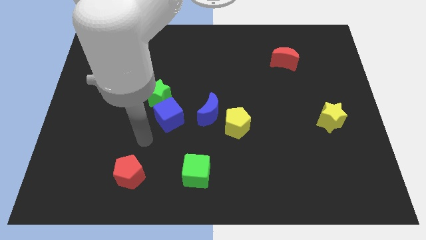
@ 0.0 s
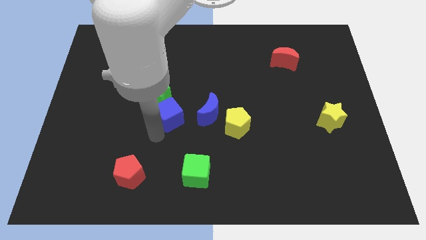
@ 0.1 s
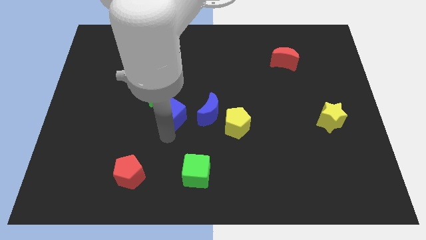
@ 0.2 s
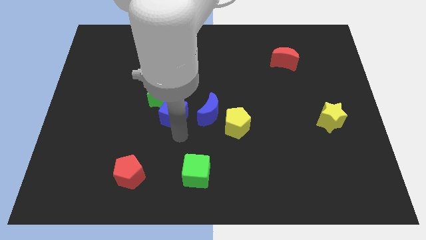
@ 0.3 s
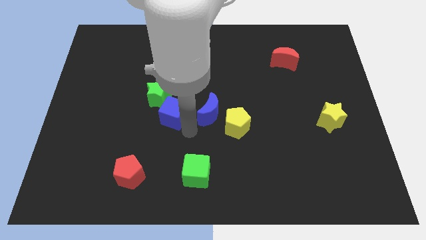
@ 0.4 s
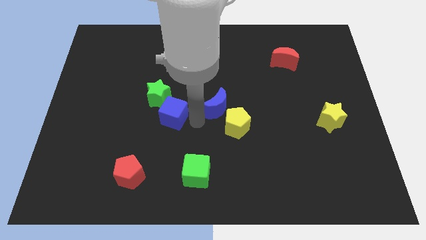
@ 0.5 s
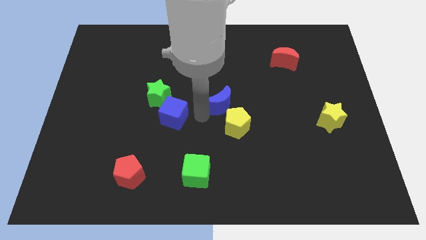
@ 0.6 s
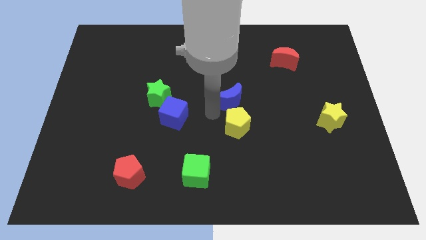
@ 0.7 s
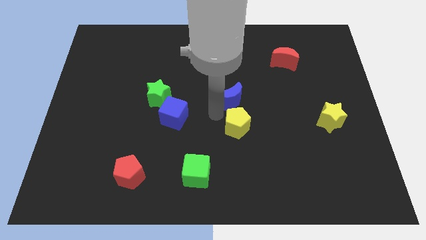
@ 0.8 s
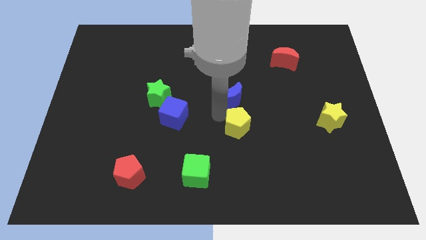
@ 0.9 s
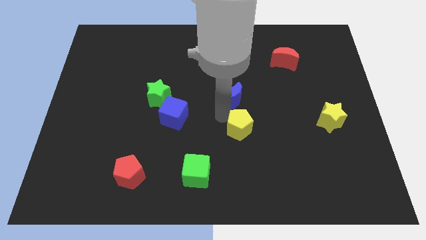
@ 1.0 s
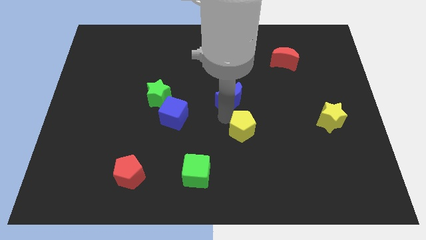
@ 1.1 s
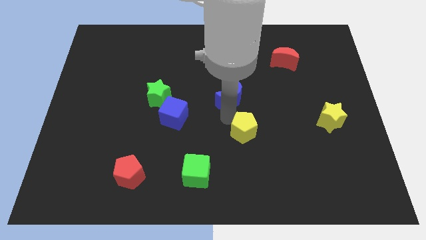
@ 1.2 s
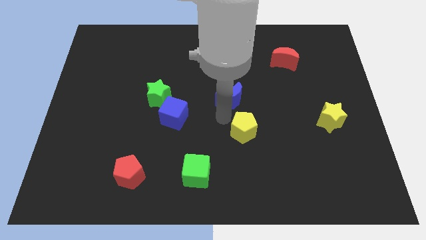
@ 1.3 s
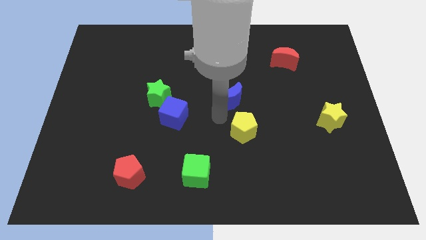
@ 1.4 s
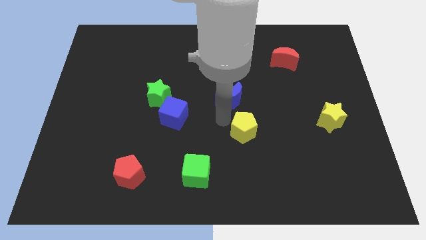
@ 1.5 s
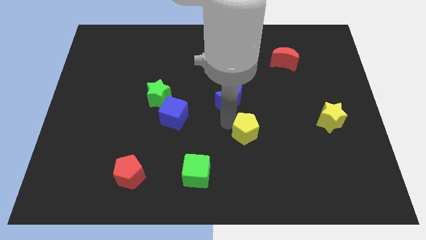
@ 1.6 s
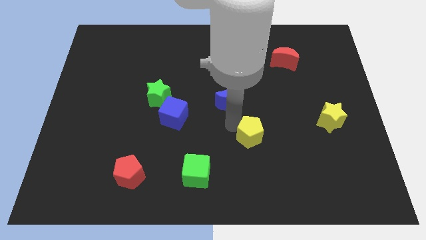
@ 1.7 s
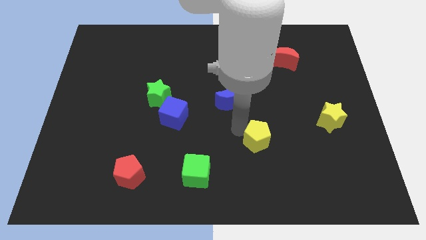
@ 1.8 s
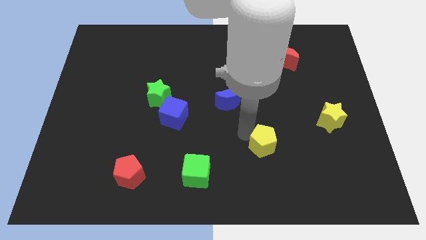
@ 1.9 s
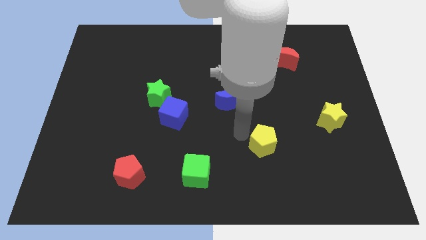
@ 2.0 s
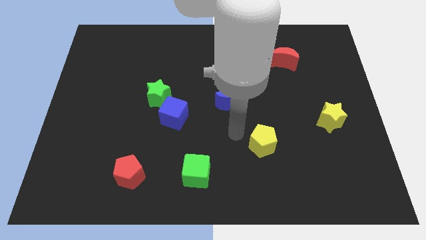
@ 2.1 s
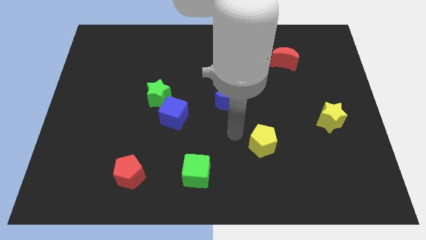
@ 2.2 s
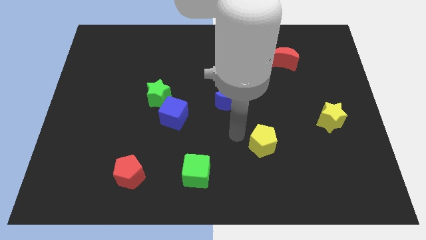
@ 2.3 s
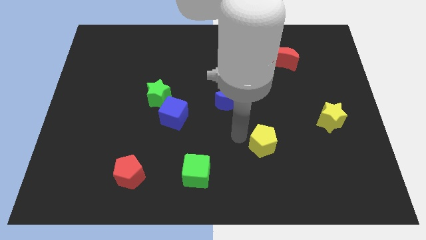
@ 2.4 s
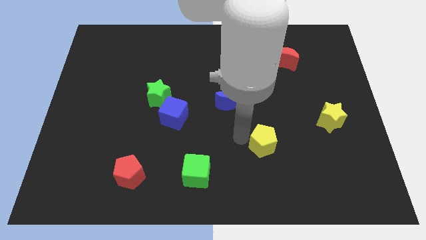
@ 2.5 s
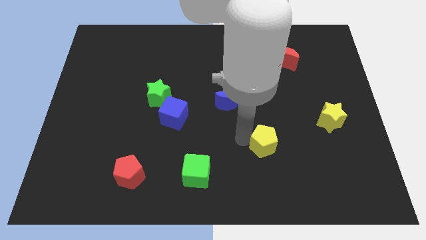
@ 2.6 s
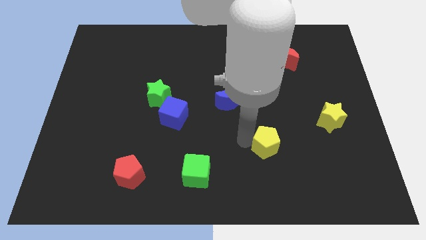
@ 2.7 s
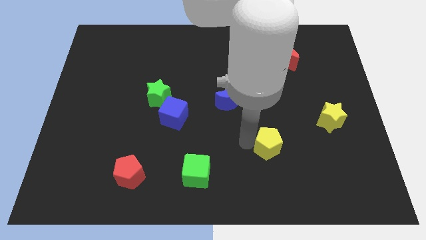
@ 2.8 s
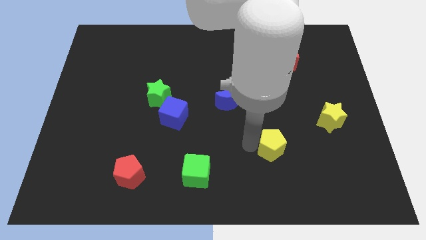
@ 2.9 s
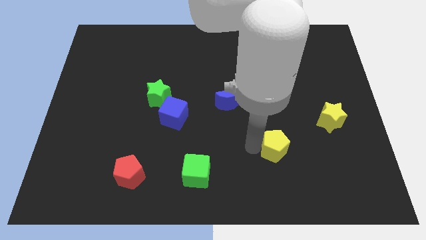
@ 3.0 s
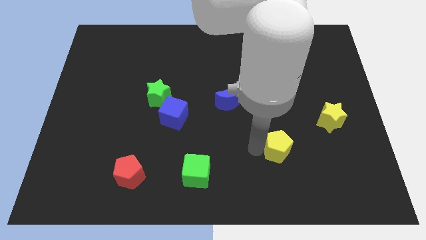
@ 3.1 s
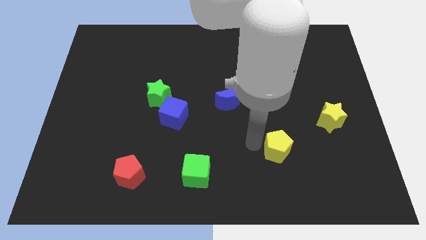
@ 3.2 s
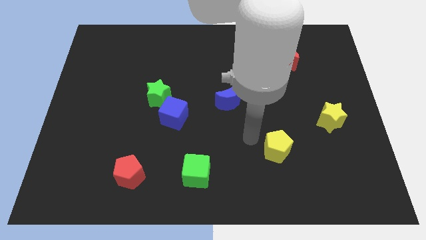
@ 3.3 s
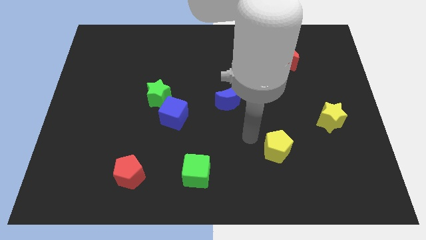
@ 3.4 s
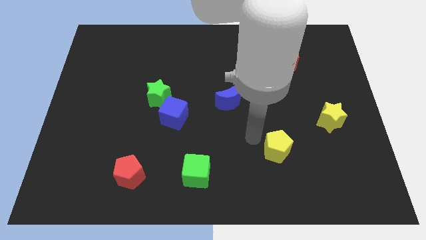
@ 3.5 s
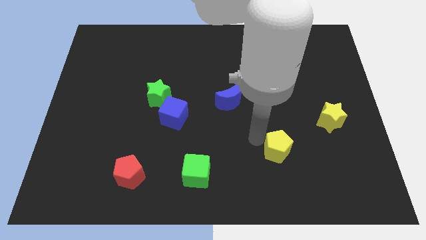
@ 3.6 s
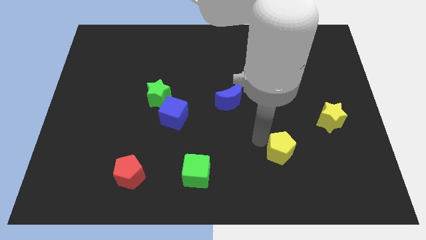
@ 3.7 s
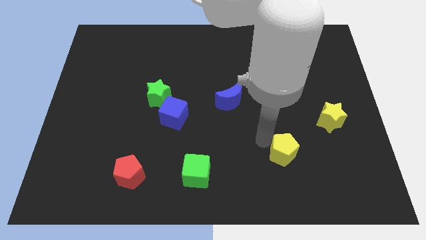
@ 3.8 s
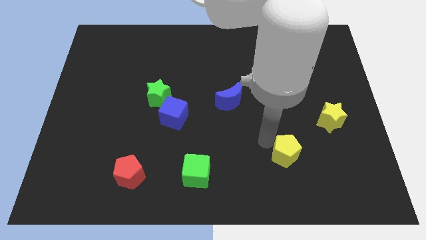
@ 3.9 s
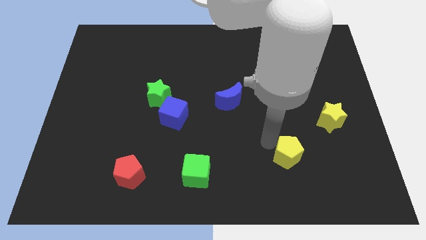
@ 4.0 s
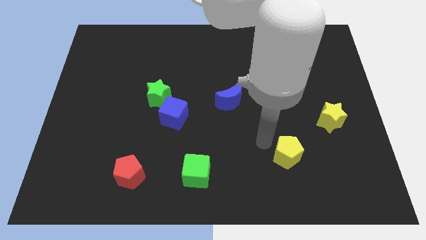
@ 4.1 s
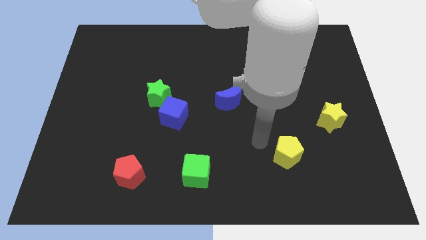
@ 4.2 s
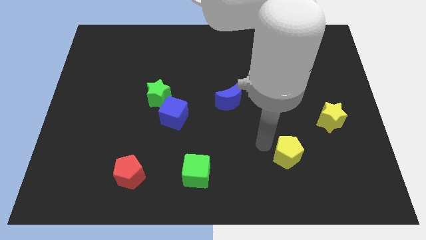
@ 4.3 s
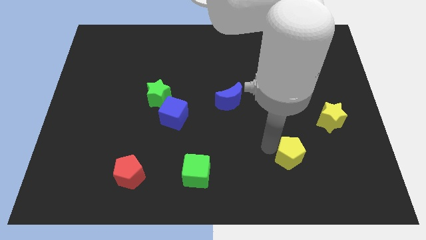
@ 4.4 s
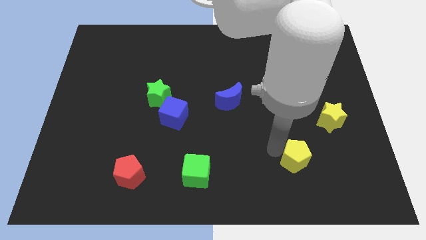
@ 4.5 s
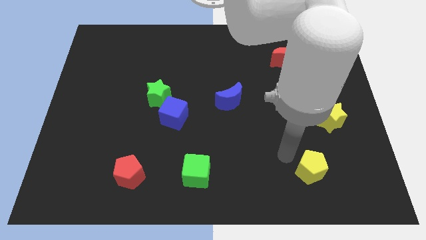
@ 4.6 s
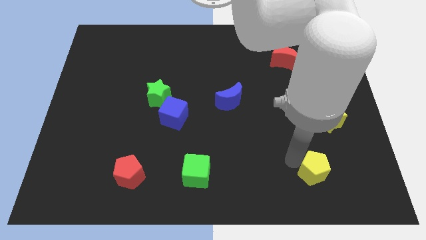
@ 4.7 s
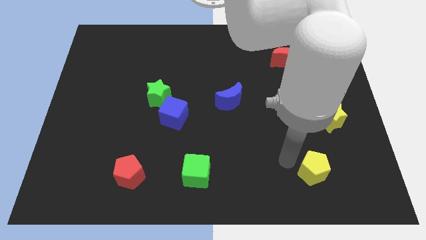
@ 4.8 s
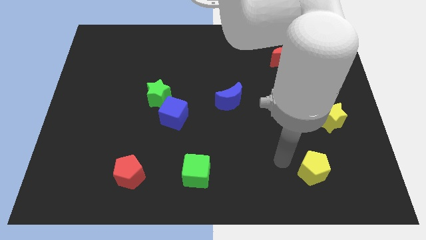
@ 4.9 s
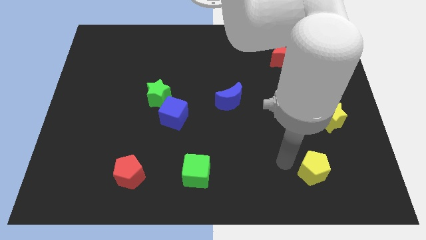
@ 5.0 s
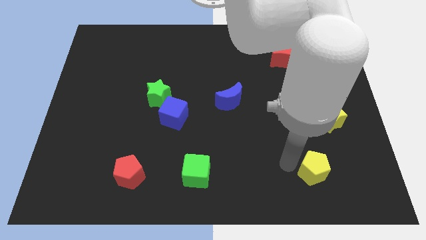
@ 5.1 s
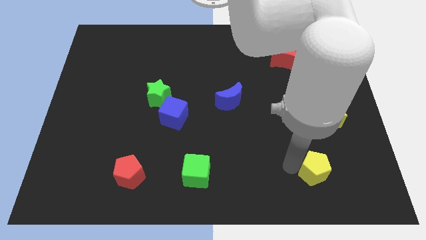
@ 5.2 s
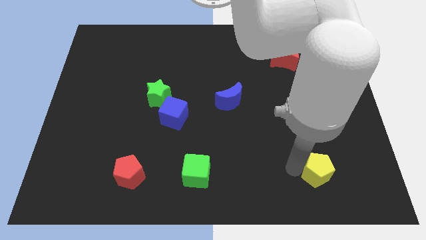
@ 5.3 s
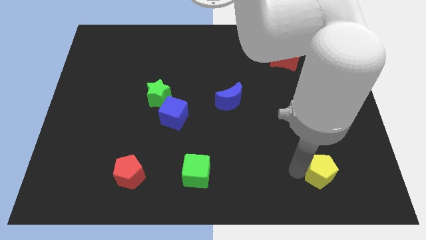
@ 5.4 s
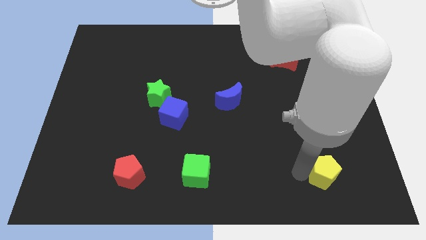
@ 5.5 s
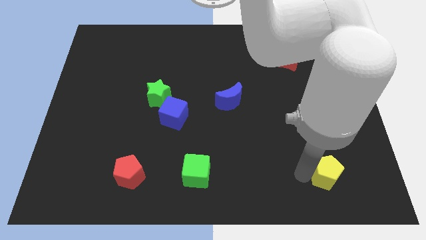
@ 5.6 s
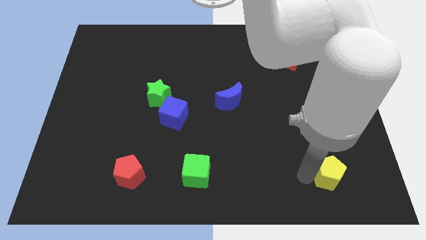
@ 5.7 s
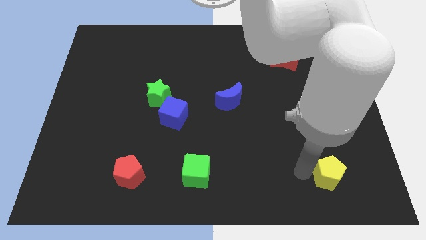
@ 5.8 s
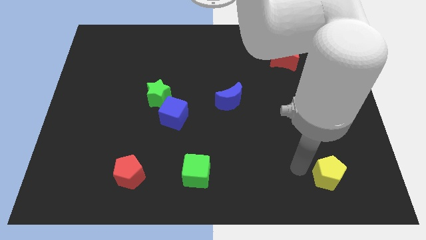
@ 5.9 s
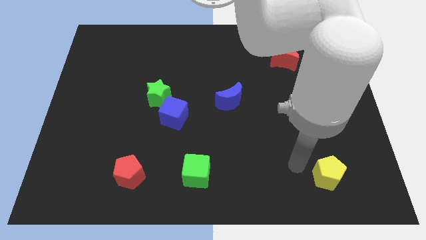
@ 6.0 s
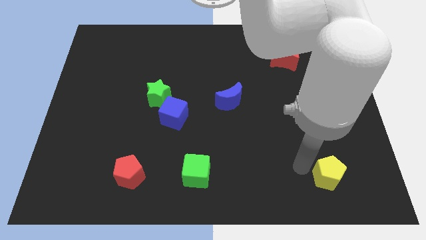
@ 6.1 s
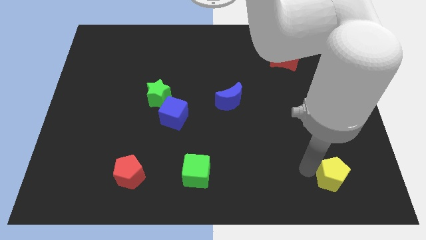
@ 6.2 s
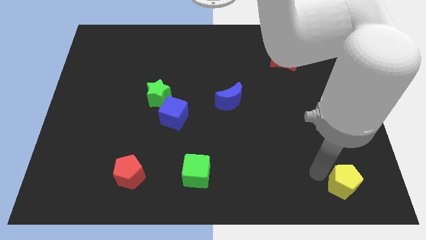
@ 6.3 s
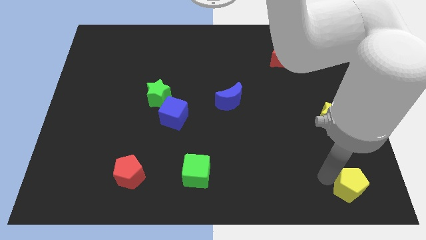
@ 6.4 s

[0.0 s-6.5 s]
slide the yellow pentagon to the bottom right

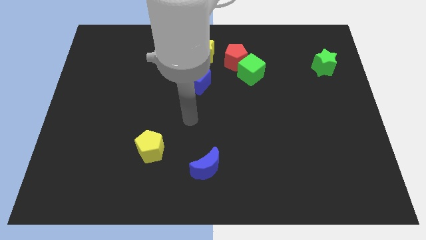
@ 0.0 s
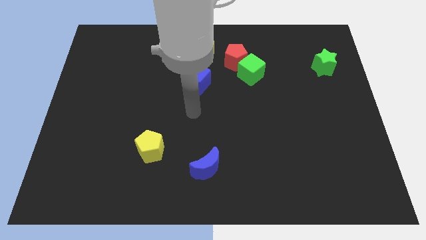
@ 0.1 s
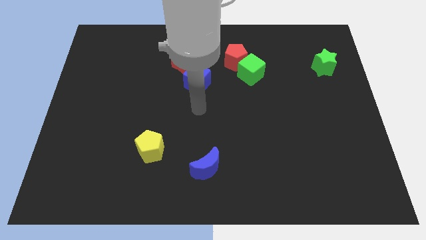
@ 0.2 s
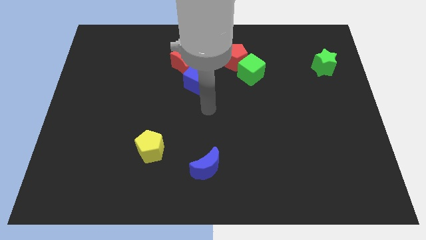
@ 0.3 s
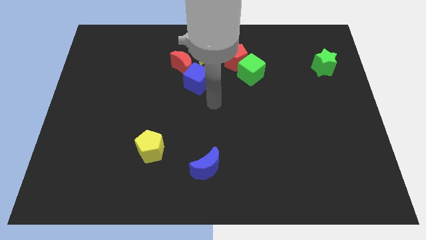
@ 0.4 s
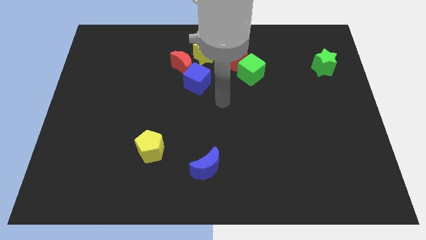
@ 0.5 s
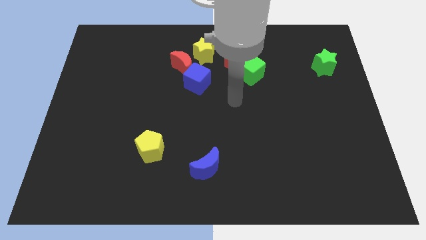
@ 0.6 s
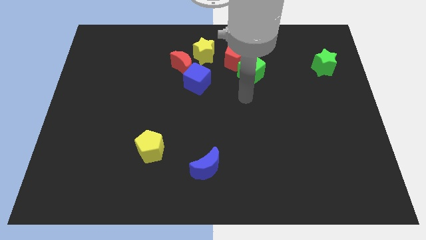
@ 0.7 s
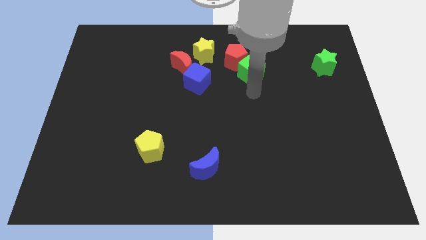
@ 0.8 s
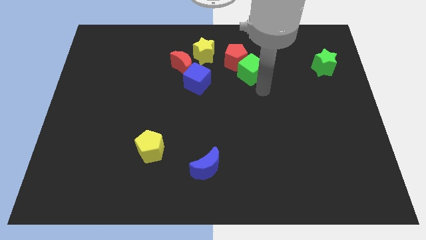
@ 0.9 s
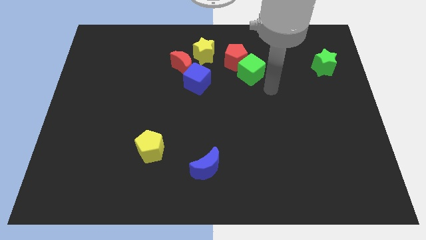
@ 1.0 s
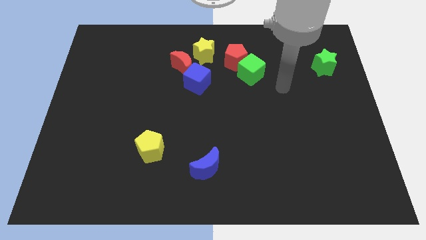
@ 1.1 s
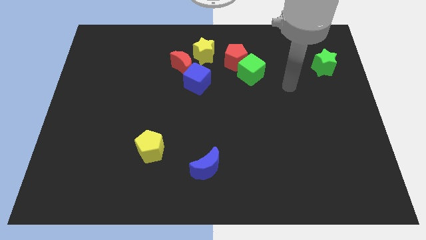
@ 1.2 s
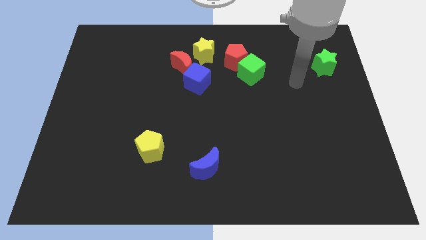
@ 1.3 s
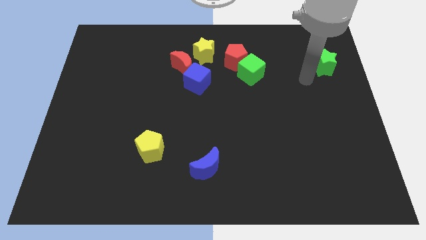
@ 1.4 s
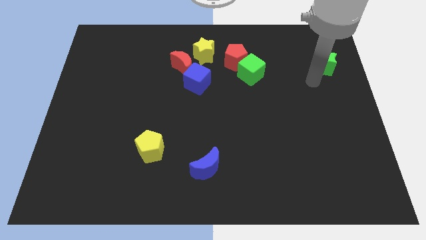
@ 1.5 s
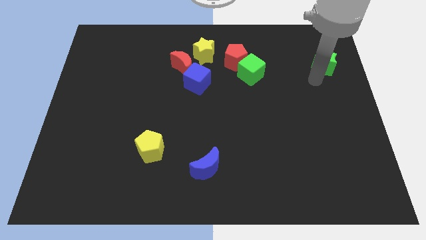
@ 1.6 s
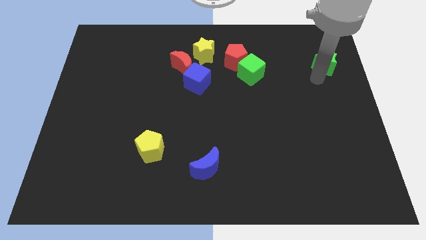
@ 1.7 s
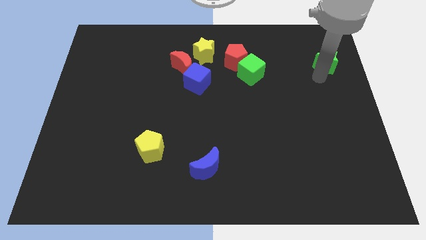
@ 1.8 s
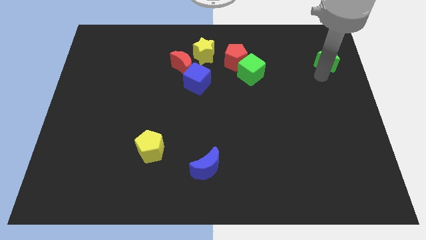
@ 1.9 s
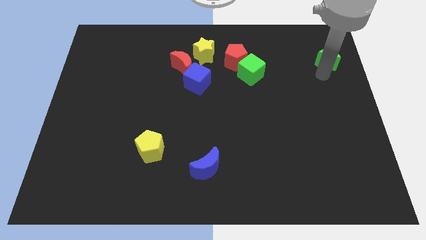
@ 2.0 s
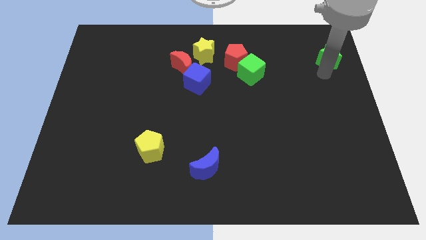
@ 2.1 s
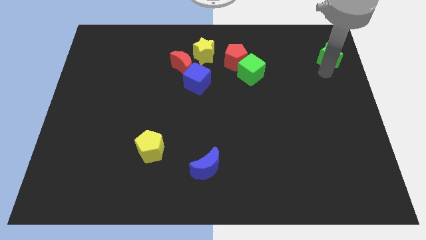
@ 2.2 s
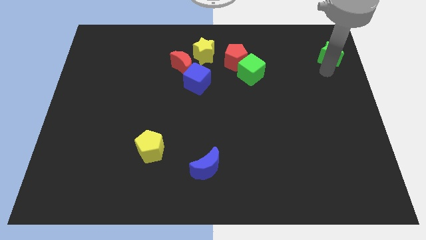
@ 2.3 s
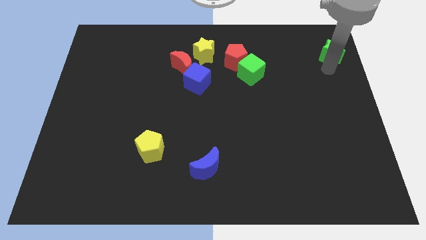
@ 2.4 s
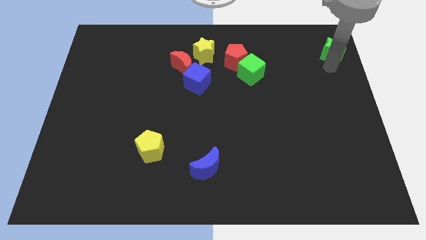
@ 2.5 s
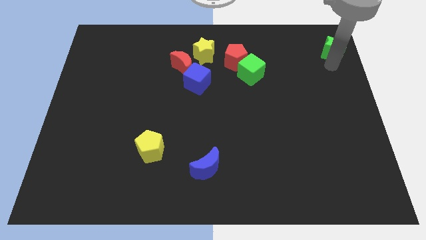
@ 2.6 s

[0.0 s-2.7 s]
move the green star to the top right of the board
